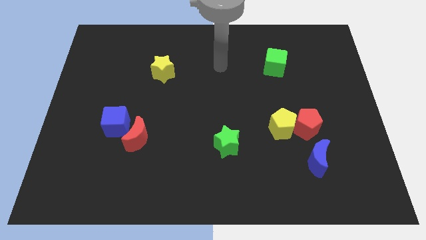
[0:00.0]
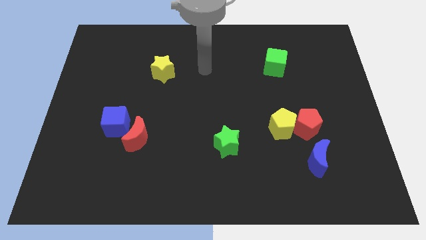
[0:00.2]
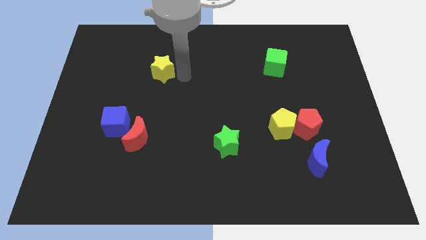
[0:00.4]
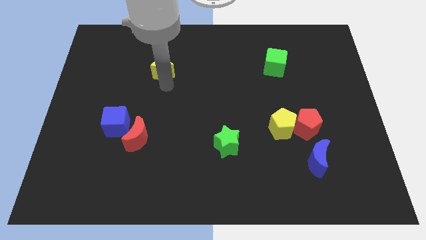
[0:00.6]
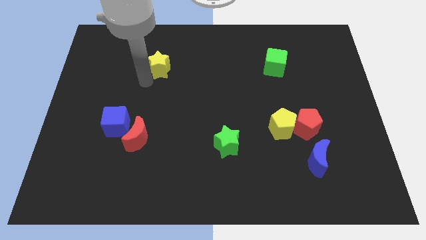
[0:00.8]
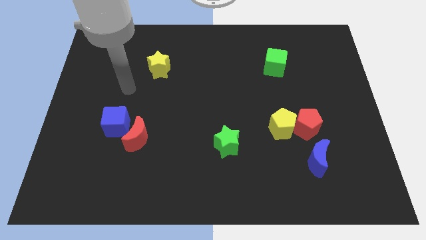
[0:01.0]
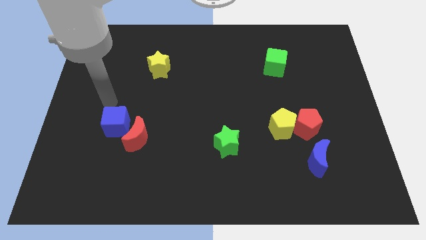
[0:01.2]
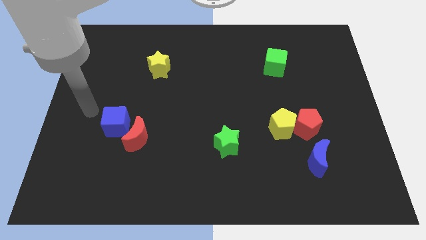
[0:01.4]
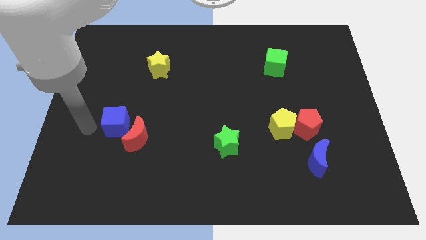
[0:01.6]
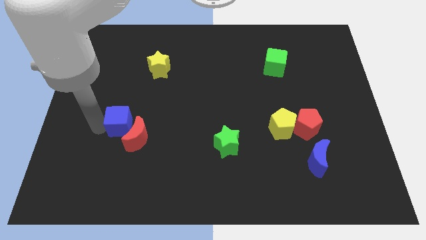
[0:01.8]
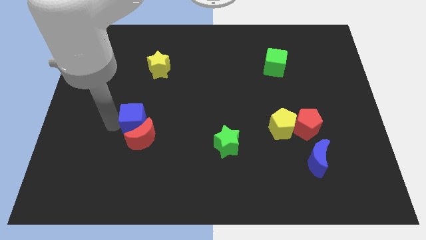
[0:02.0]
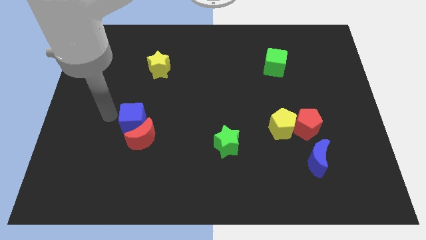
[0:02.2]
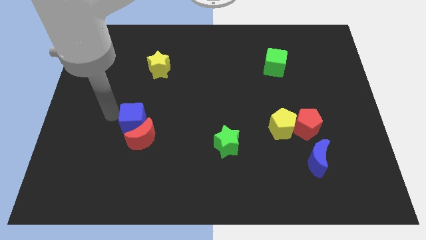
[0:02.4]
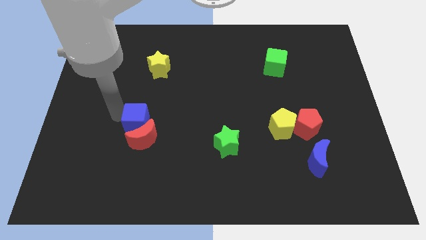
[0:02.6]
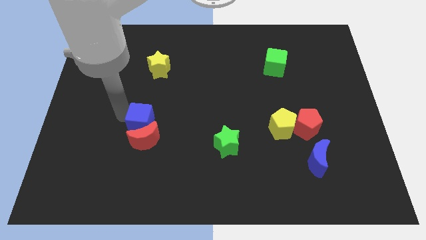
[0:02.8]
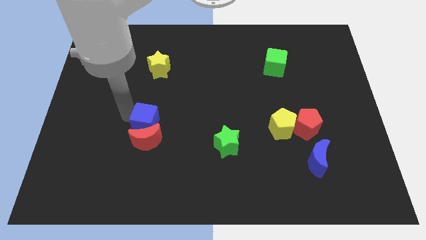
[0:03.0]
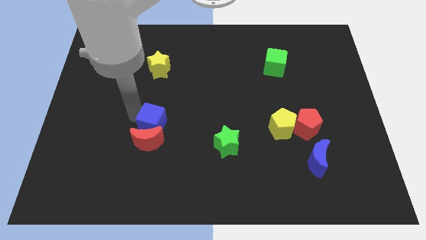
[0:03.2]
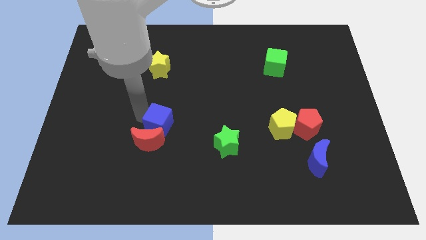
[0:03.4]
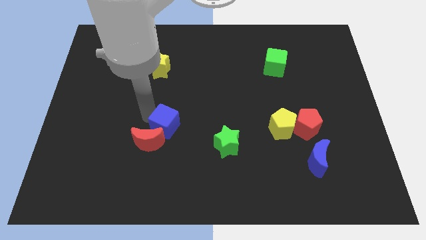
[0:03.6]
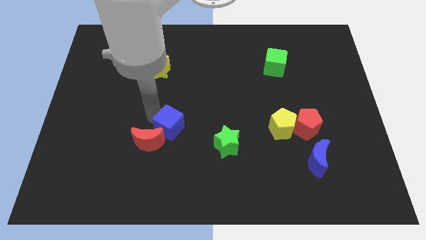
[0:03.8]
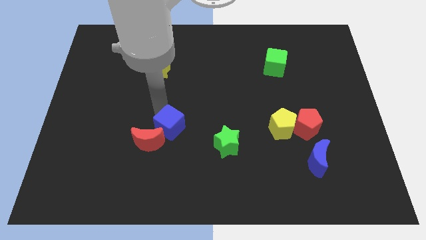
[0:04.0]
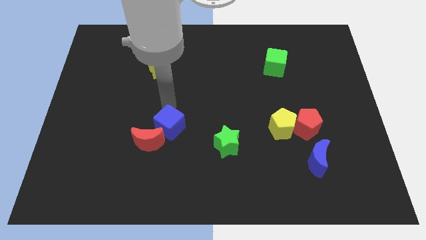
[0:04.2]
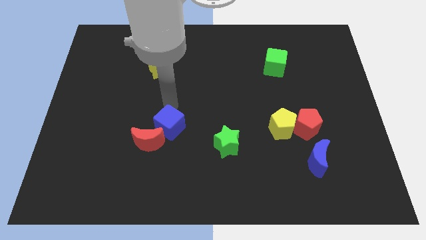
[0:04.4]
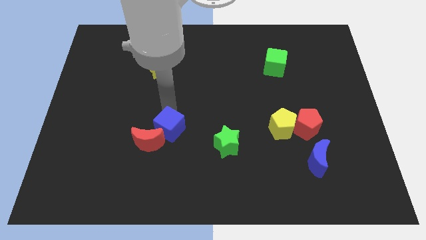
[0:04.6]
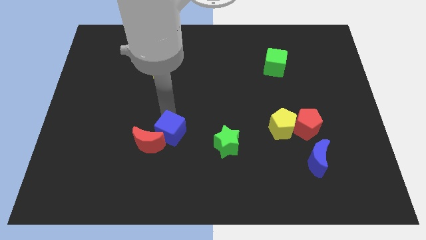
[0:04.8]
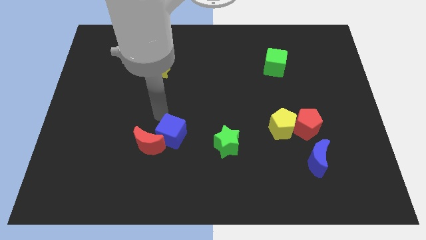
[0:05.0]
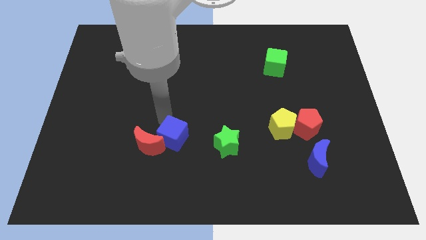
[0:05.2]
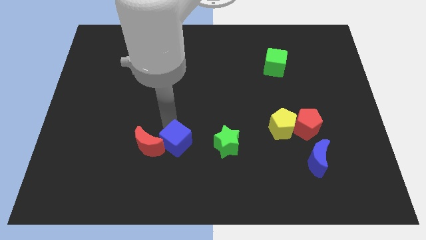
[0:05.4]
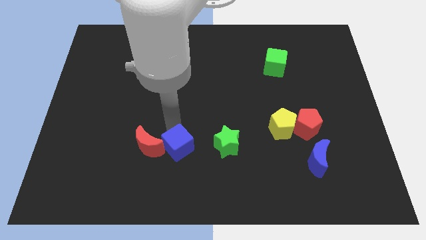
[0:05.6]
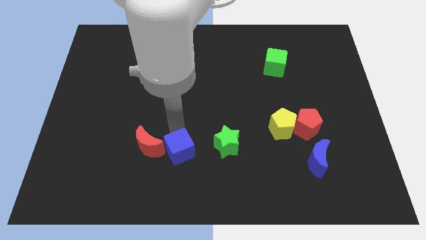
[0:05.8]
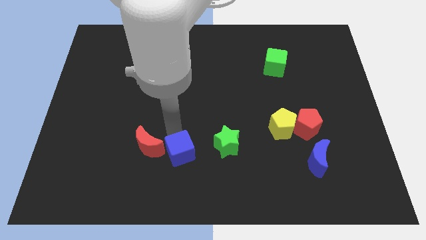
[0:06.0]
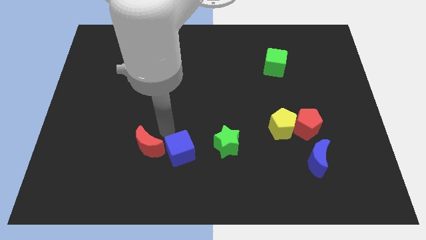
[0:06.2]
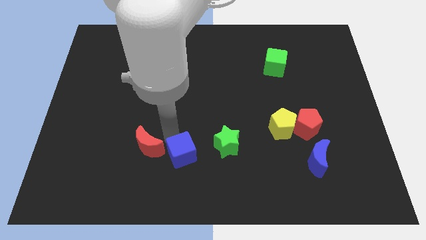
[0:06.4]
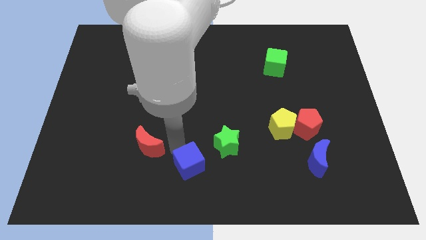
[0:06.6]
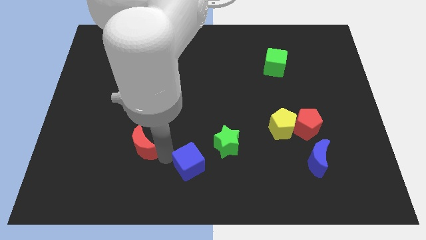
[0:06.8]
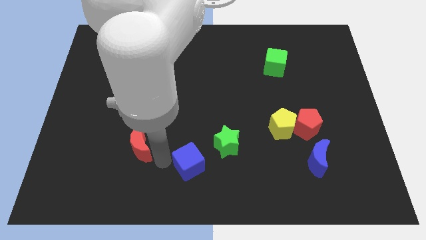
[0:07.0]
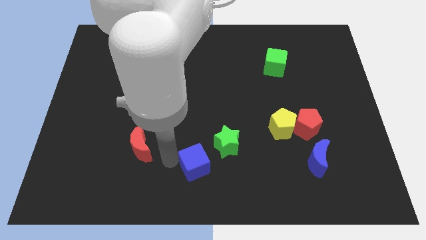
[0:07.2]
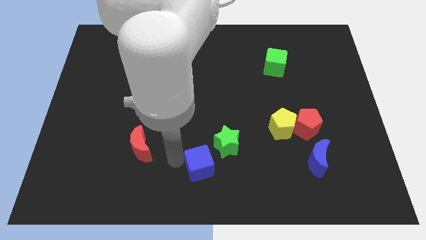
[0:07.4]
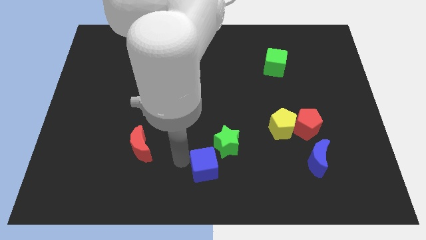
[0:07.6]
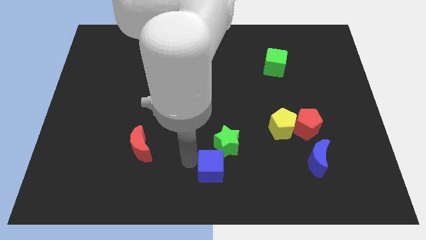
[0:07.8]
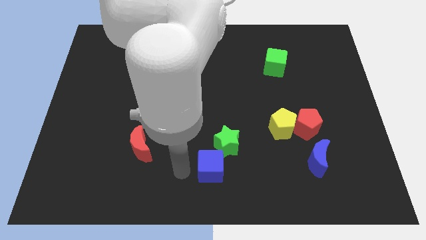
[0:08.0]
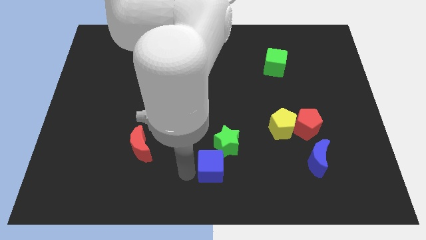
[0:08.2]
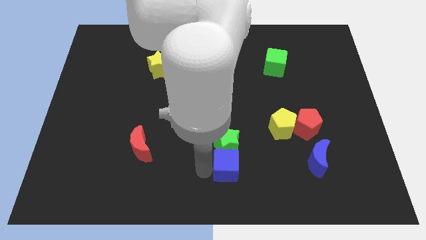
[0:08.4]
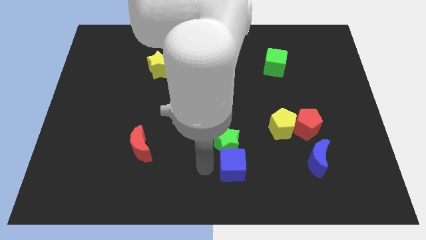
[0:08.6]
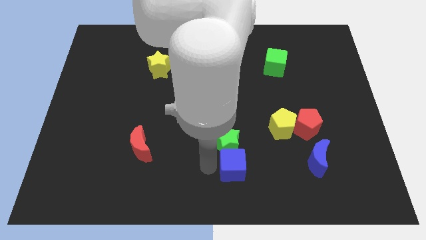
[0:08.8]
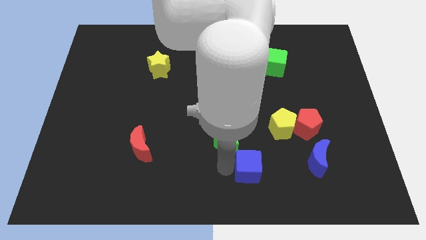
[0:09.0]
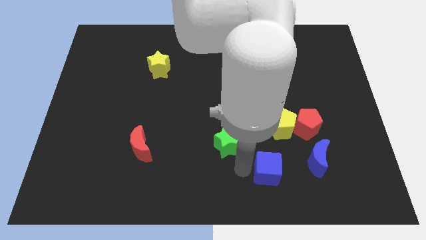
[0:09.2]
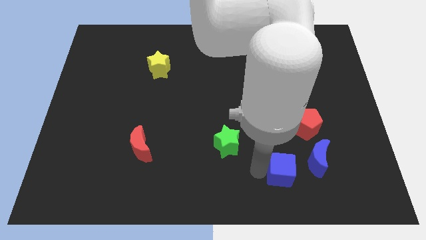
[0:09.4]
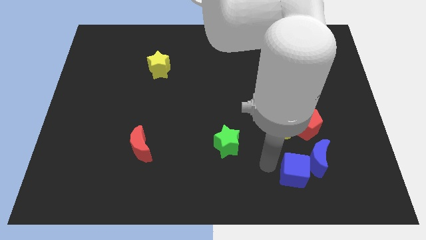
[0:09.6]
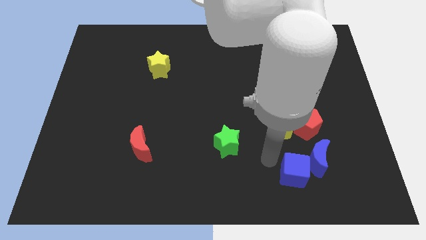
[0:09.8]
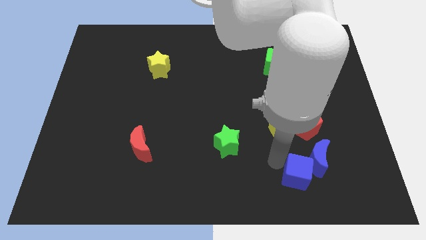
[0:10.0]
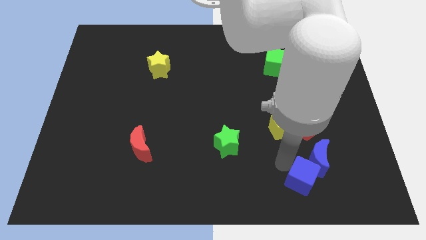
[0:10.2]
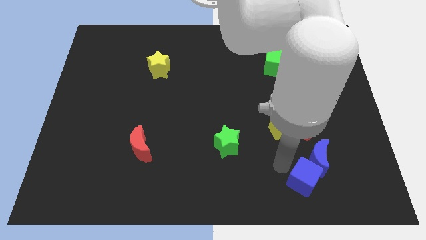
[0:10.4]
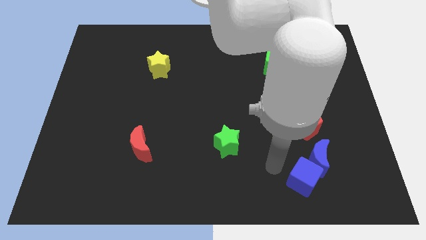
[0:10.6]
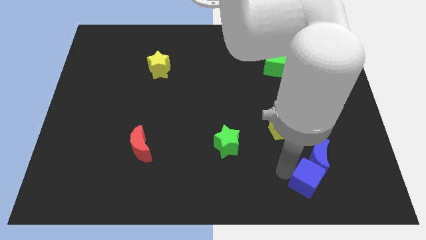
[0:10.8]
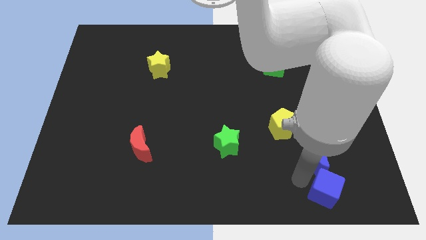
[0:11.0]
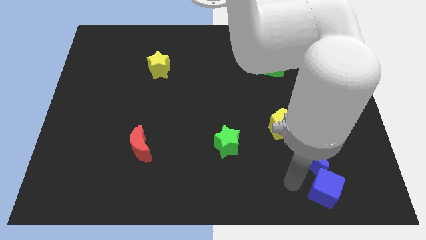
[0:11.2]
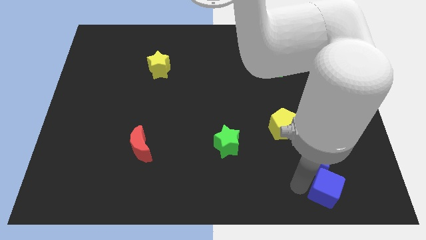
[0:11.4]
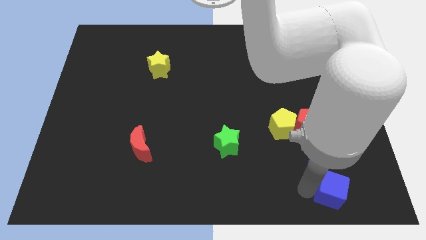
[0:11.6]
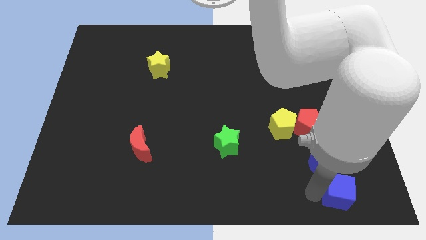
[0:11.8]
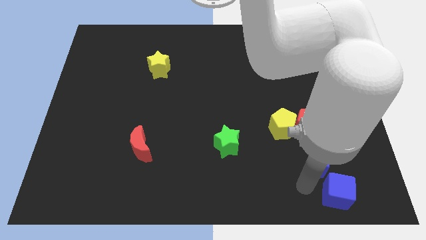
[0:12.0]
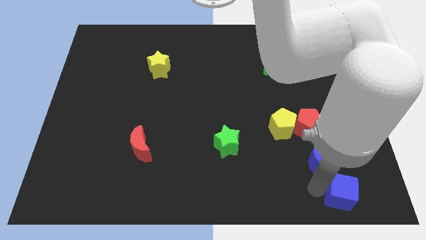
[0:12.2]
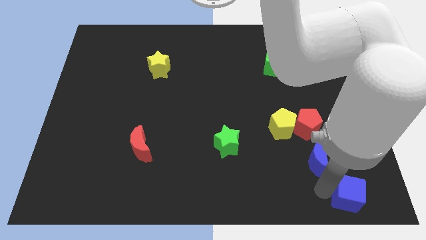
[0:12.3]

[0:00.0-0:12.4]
slide the blue cube to the bottom right of the board

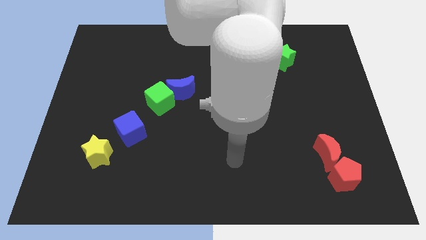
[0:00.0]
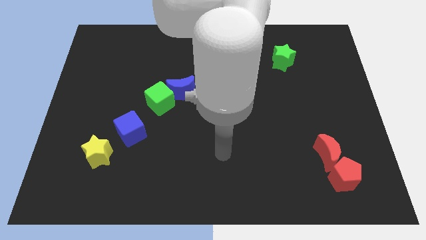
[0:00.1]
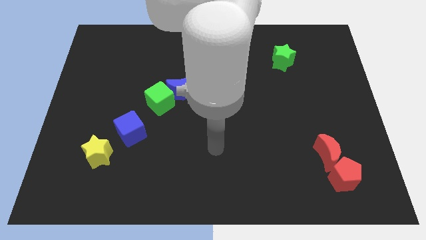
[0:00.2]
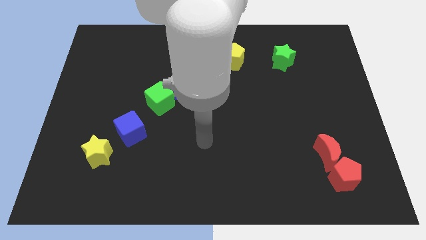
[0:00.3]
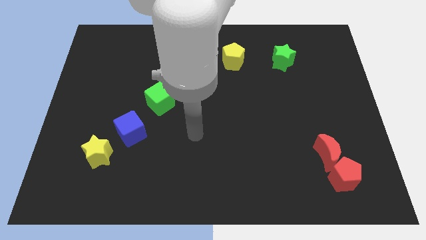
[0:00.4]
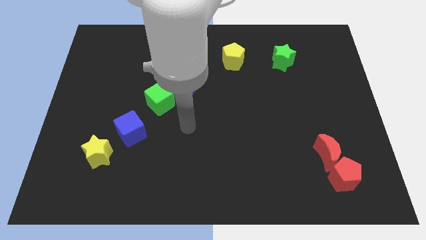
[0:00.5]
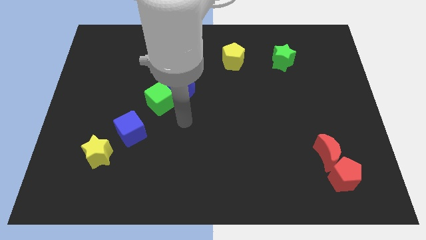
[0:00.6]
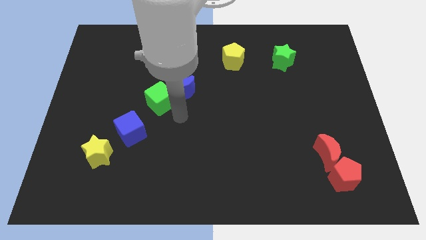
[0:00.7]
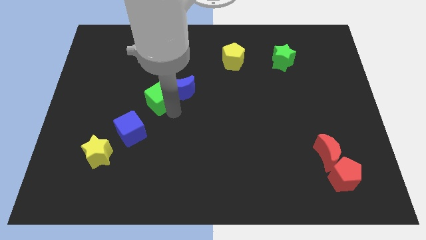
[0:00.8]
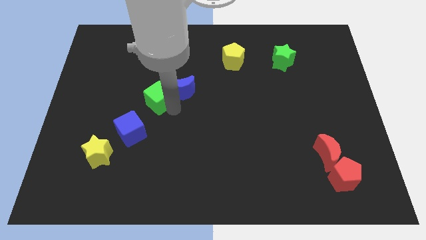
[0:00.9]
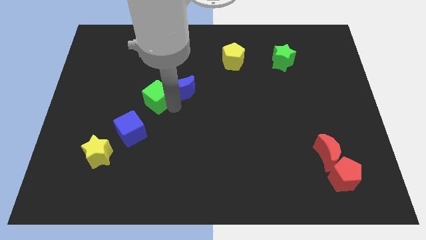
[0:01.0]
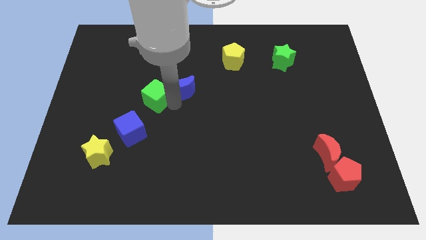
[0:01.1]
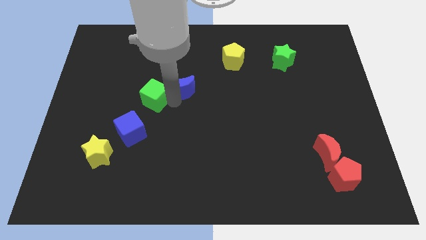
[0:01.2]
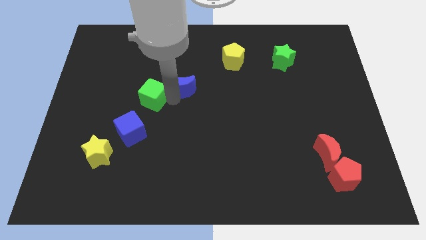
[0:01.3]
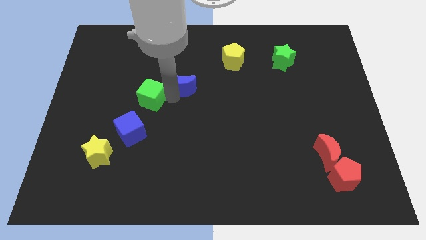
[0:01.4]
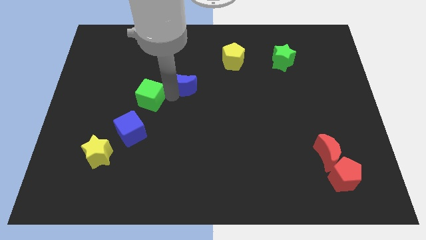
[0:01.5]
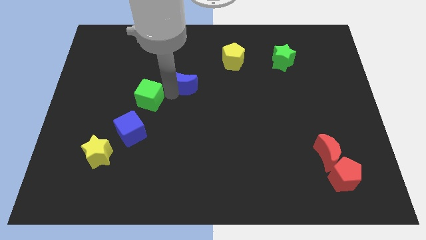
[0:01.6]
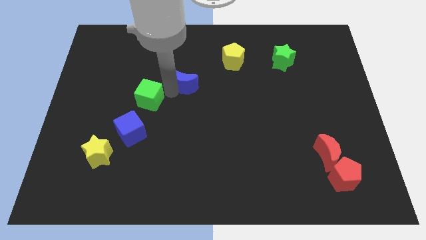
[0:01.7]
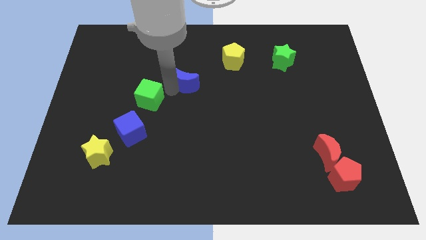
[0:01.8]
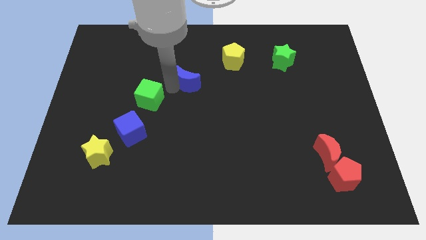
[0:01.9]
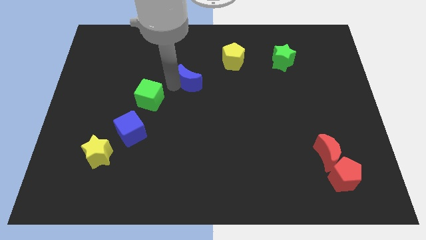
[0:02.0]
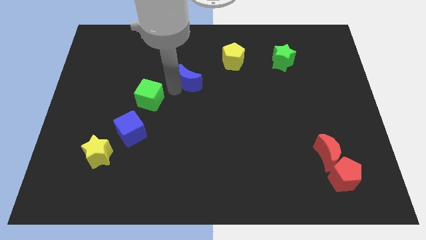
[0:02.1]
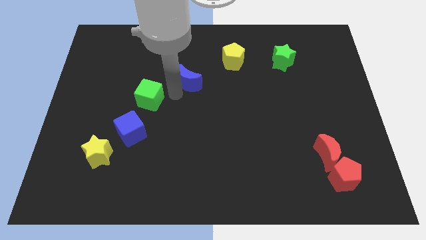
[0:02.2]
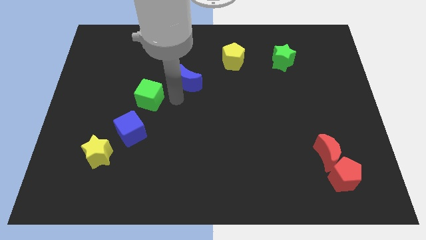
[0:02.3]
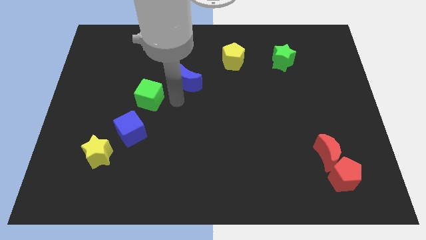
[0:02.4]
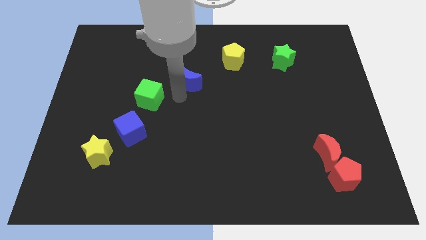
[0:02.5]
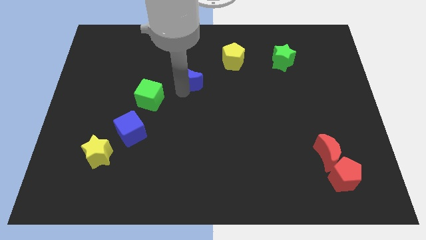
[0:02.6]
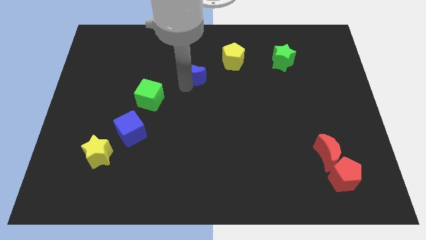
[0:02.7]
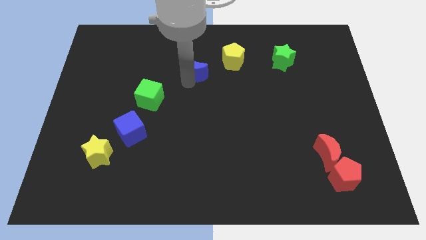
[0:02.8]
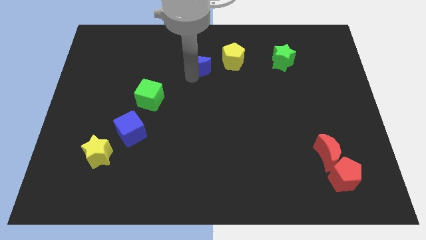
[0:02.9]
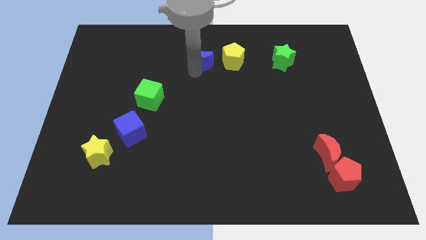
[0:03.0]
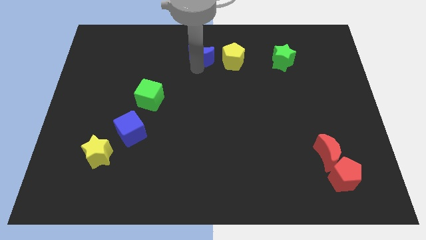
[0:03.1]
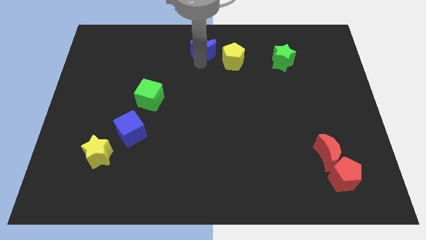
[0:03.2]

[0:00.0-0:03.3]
slide the blue moon to the top side
